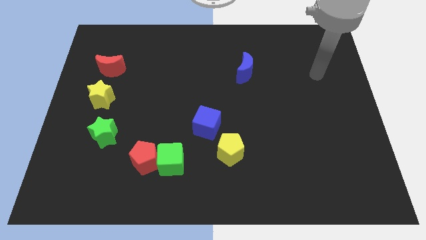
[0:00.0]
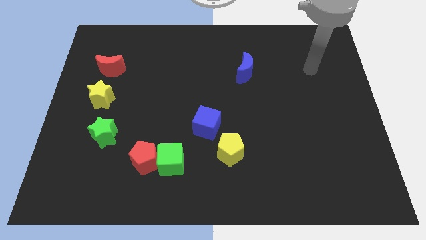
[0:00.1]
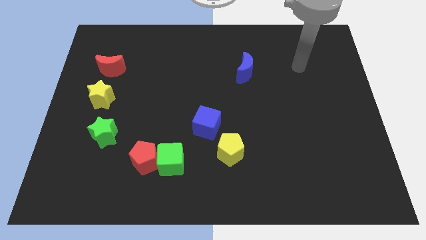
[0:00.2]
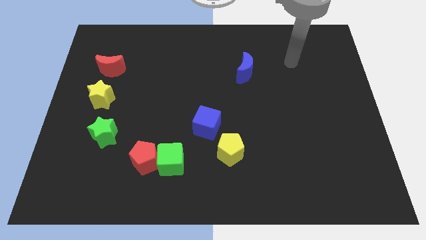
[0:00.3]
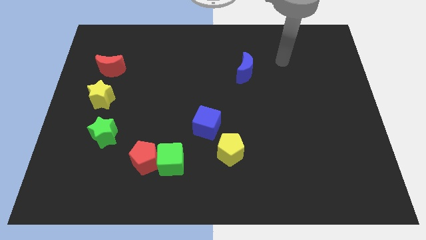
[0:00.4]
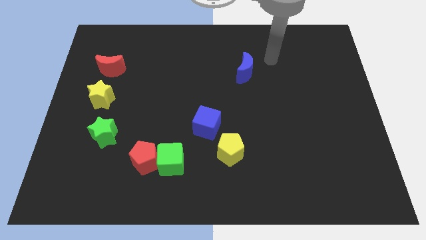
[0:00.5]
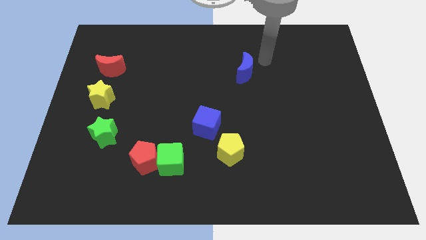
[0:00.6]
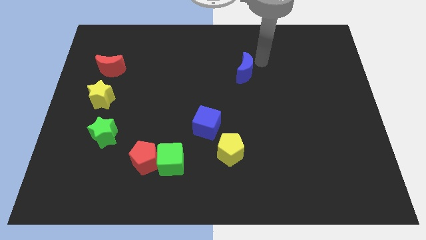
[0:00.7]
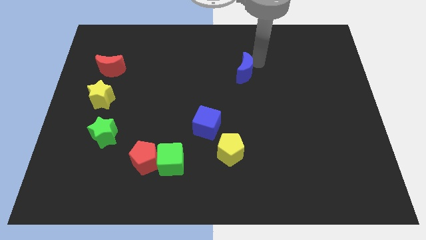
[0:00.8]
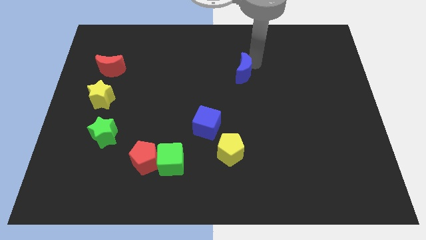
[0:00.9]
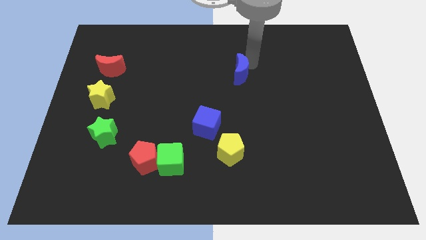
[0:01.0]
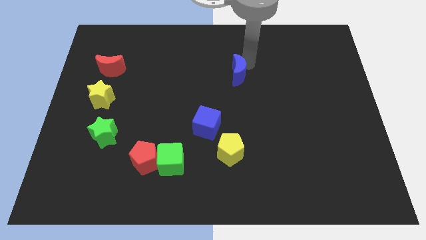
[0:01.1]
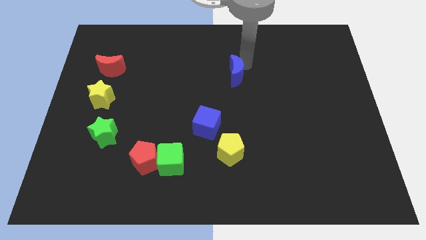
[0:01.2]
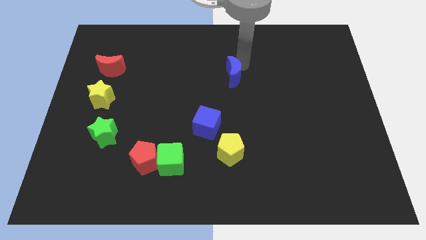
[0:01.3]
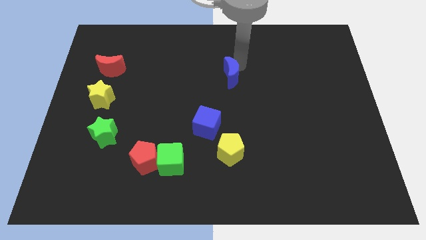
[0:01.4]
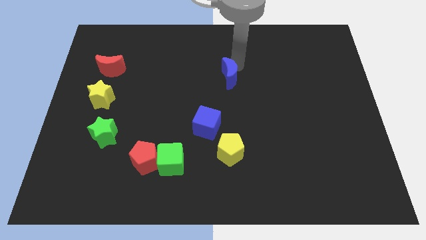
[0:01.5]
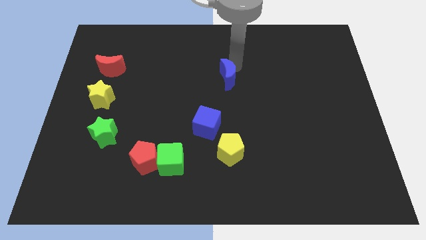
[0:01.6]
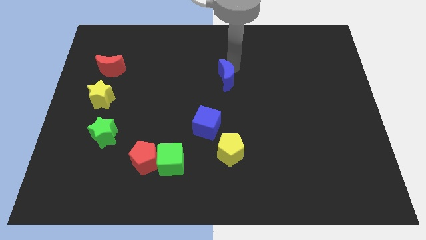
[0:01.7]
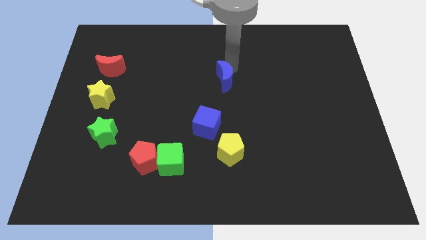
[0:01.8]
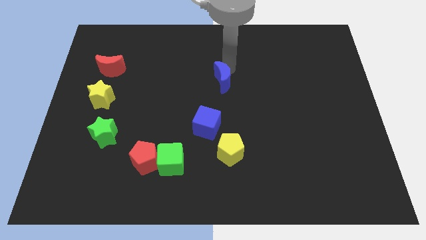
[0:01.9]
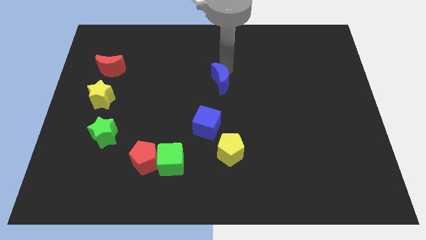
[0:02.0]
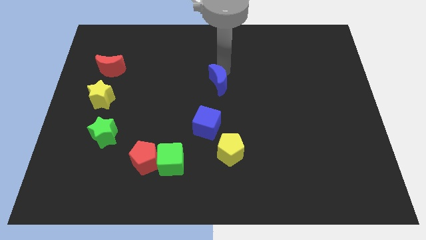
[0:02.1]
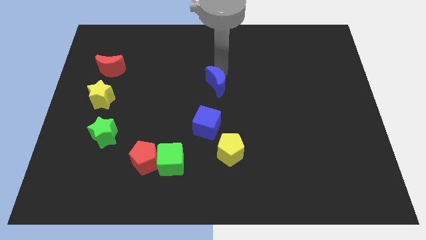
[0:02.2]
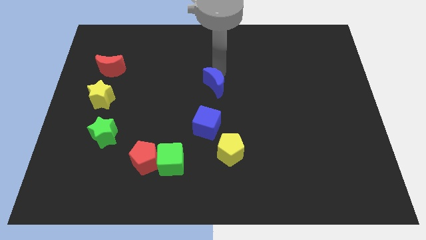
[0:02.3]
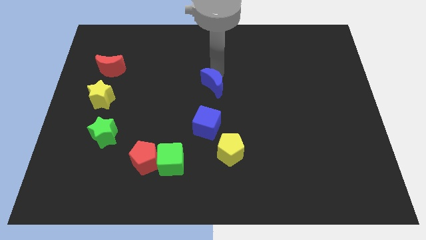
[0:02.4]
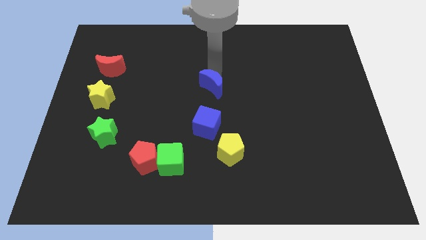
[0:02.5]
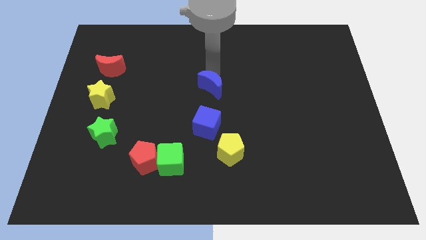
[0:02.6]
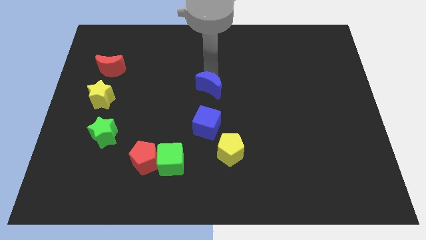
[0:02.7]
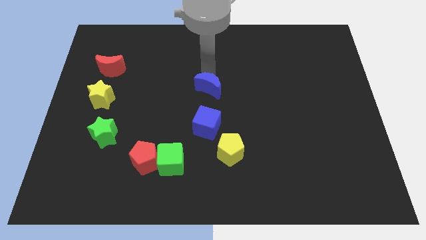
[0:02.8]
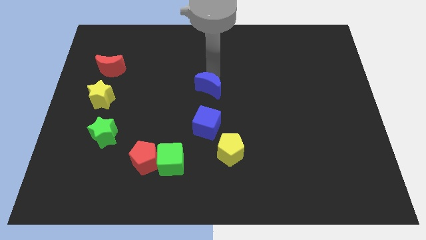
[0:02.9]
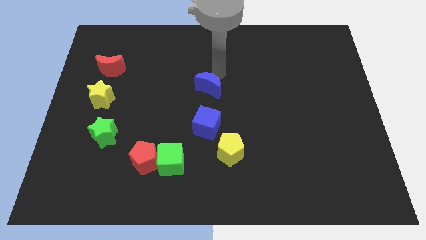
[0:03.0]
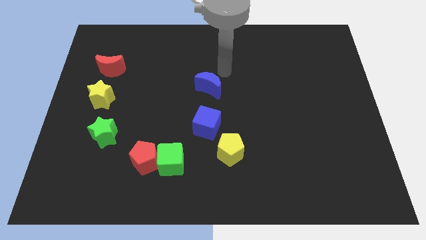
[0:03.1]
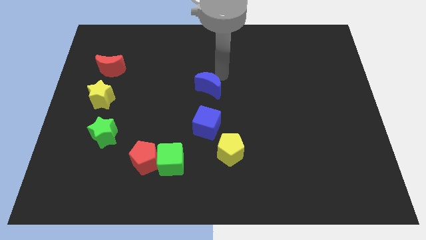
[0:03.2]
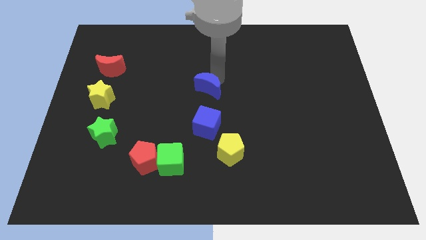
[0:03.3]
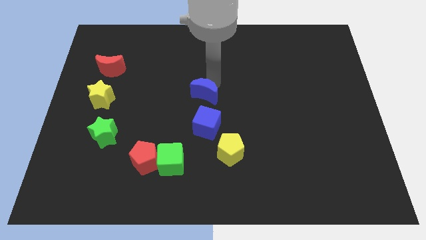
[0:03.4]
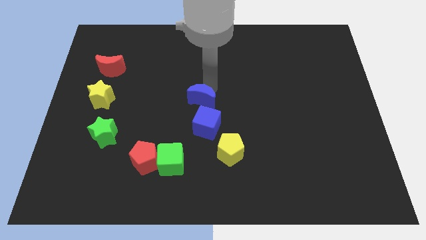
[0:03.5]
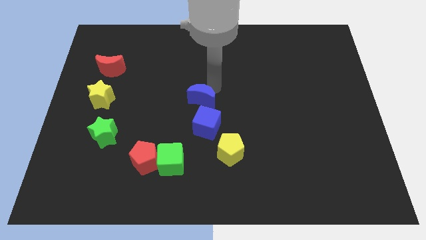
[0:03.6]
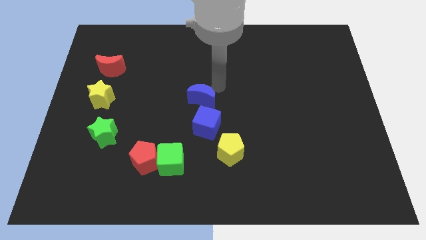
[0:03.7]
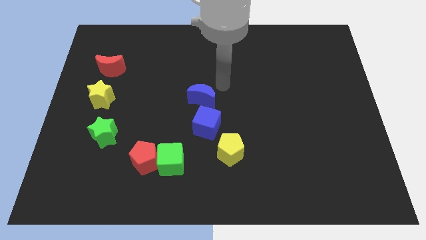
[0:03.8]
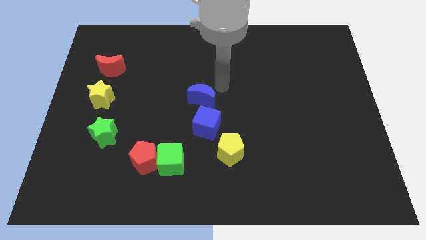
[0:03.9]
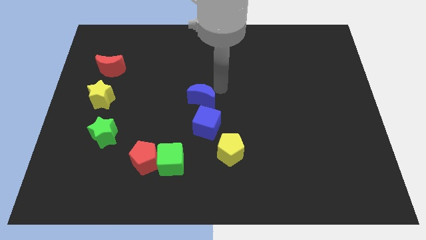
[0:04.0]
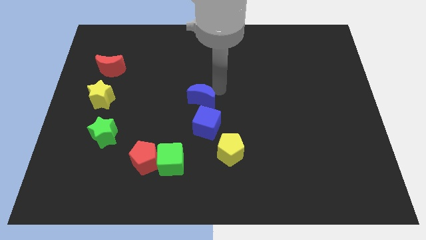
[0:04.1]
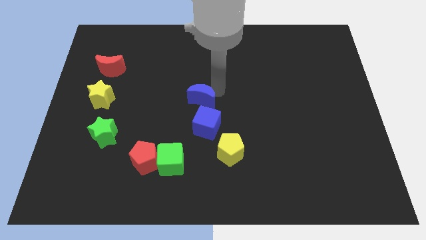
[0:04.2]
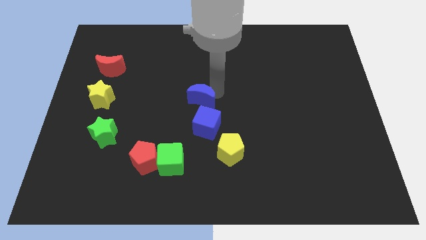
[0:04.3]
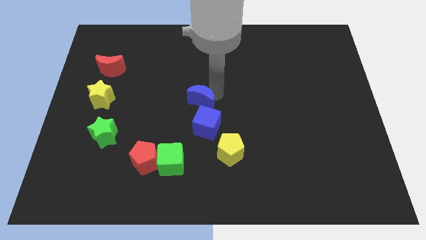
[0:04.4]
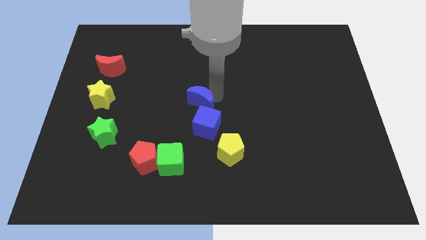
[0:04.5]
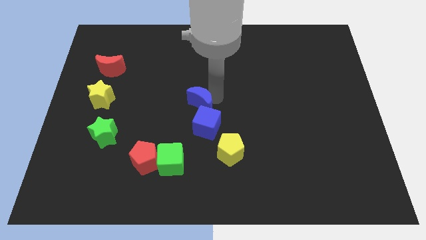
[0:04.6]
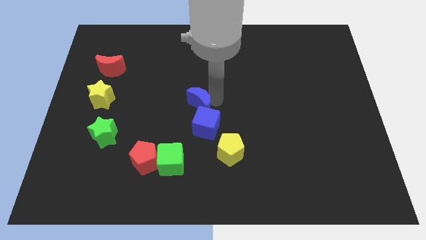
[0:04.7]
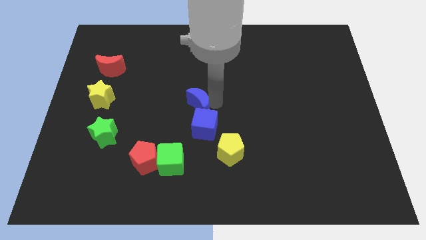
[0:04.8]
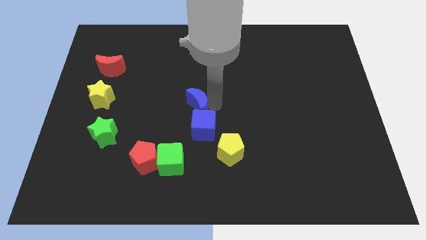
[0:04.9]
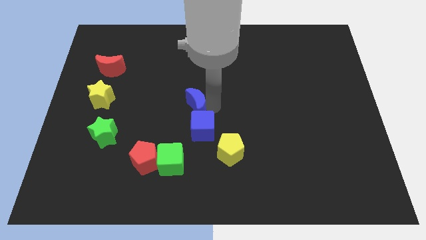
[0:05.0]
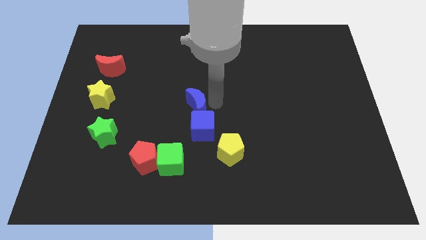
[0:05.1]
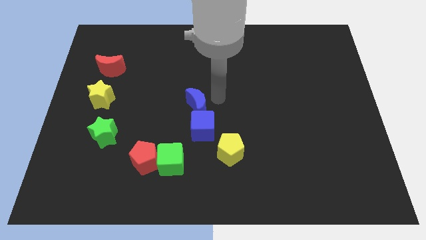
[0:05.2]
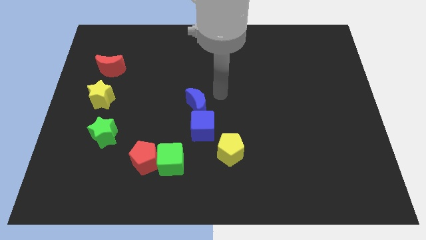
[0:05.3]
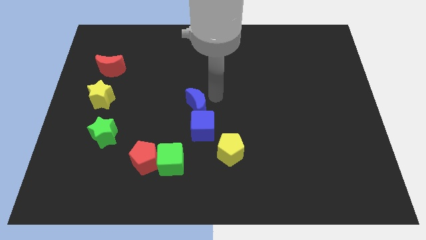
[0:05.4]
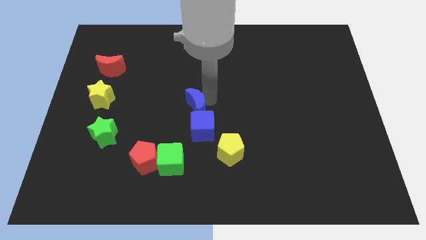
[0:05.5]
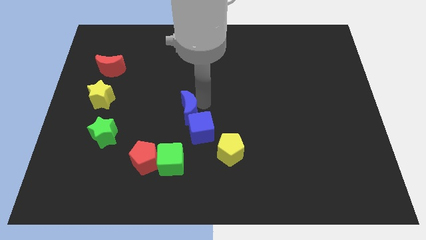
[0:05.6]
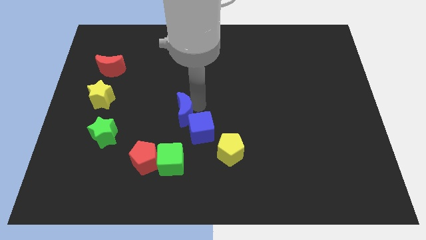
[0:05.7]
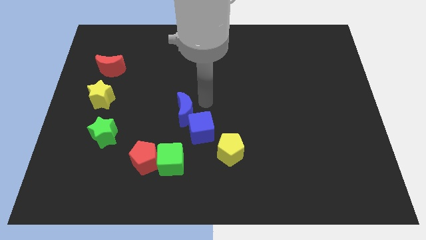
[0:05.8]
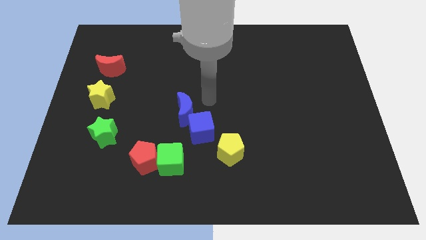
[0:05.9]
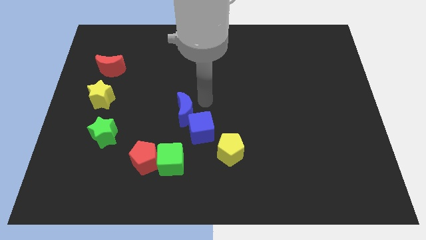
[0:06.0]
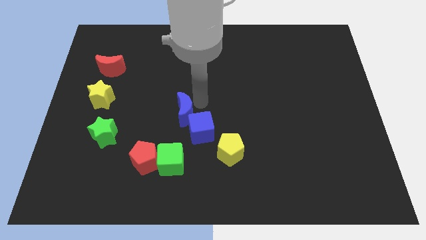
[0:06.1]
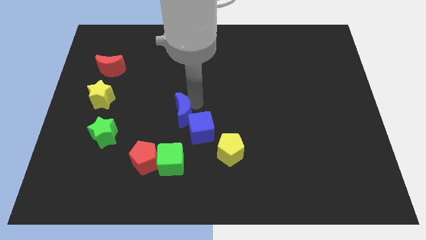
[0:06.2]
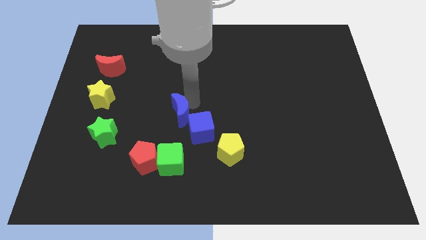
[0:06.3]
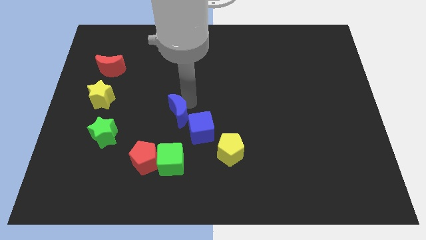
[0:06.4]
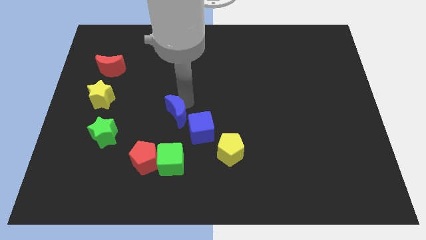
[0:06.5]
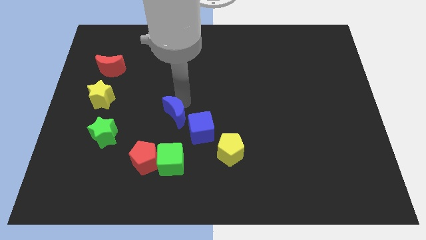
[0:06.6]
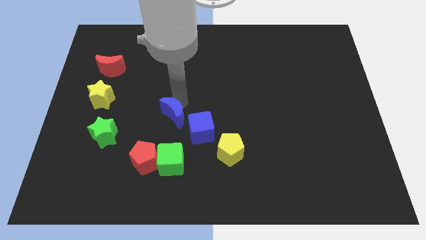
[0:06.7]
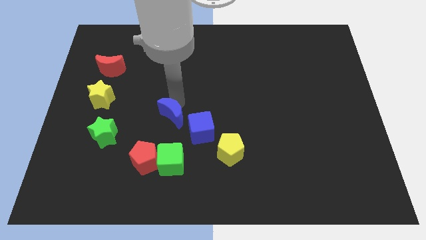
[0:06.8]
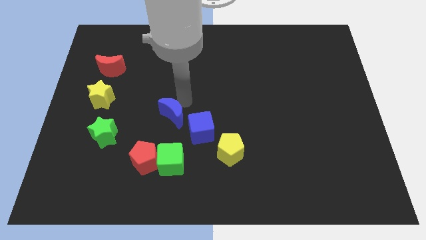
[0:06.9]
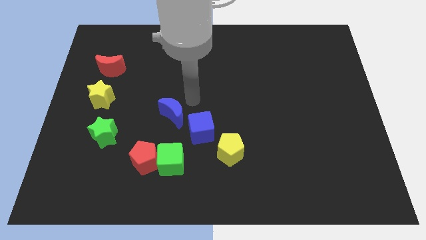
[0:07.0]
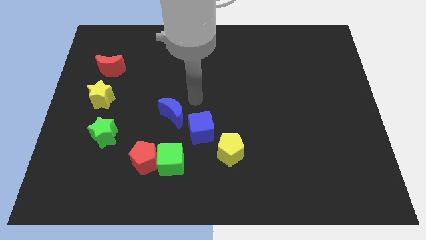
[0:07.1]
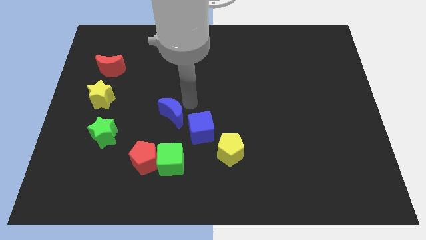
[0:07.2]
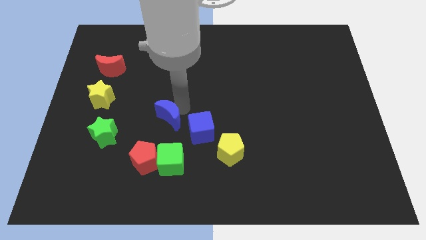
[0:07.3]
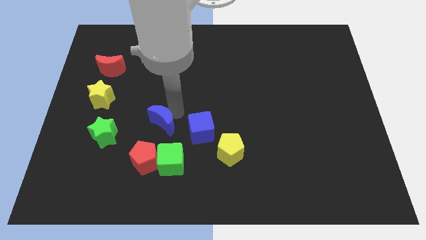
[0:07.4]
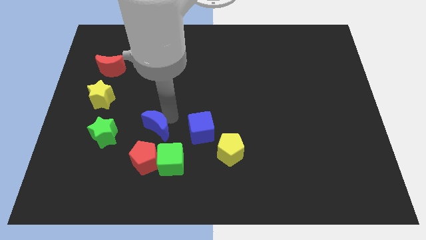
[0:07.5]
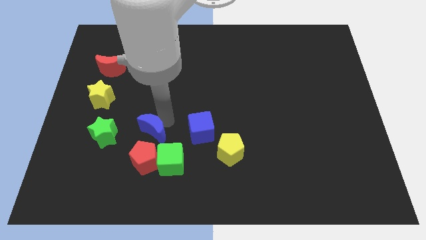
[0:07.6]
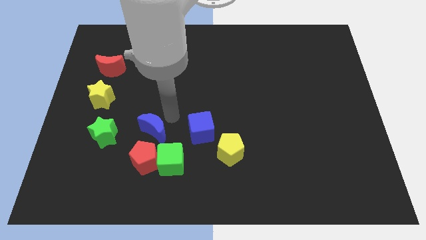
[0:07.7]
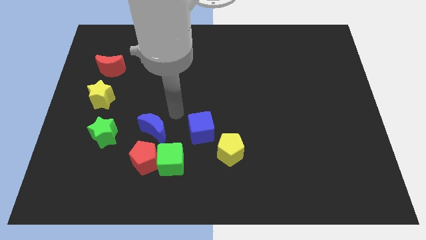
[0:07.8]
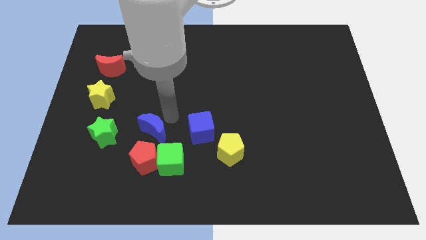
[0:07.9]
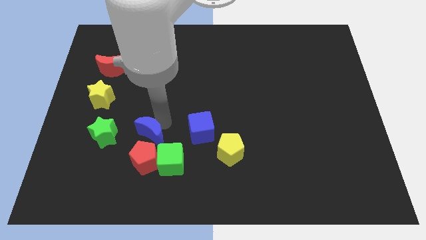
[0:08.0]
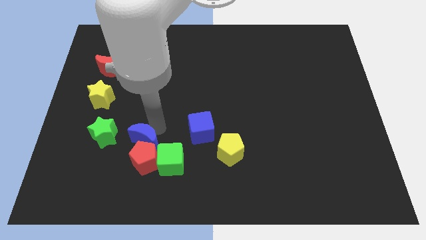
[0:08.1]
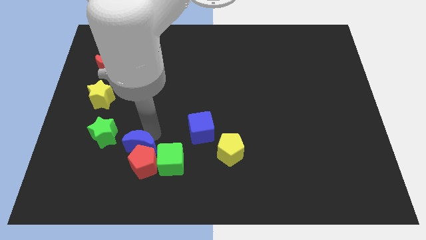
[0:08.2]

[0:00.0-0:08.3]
move the blue moon to the bottom right side of the green star
